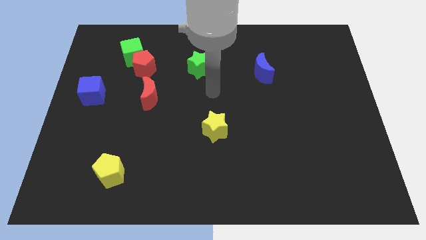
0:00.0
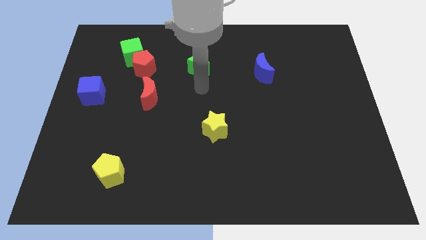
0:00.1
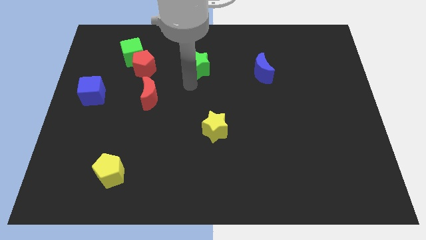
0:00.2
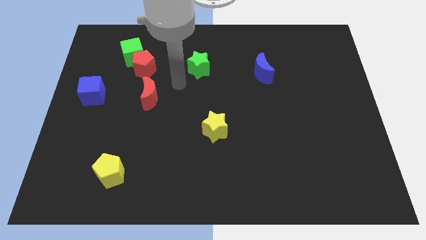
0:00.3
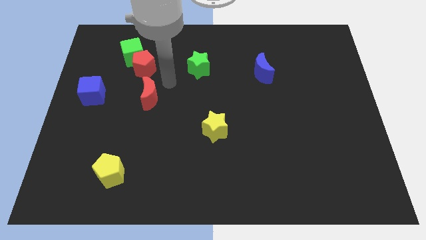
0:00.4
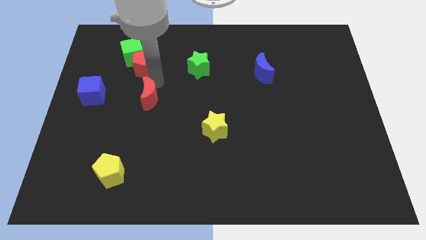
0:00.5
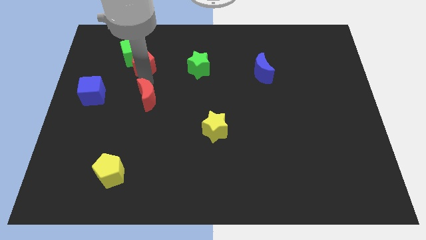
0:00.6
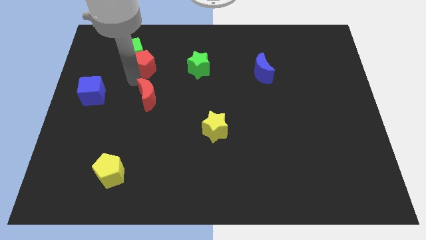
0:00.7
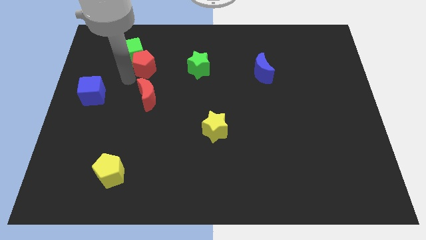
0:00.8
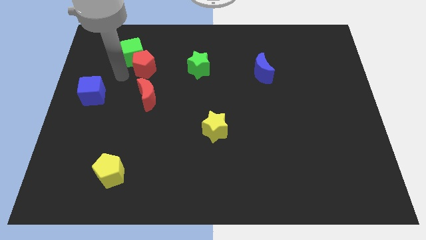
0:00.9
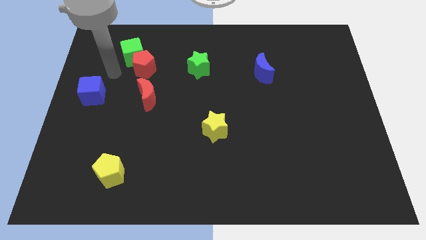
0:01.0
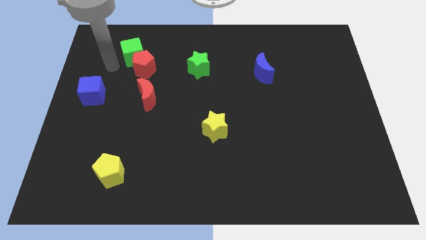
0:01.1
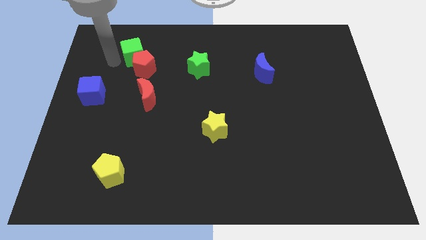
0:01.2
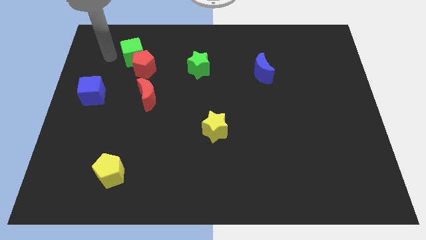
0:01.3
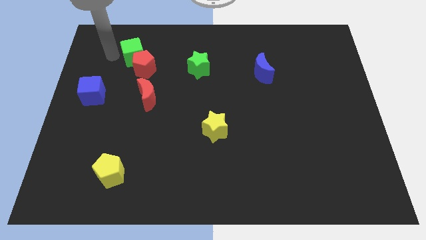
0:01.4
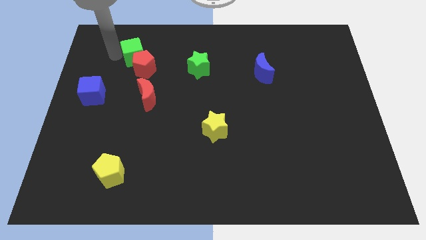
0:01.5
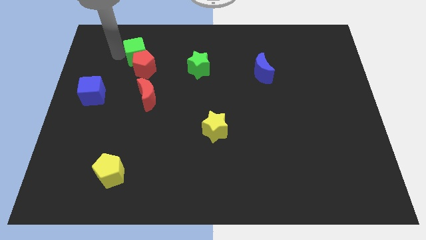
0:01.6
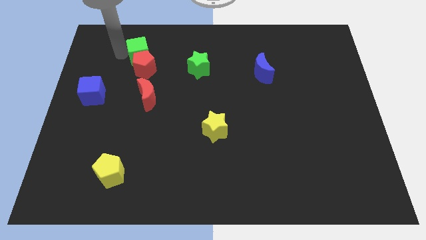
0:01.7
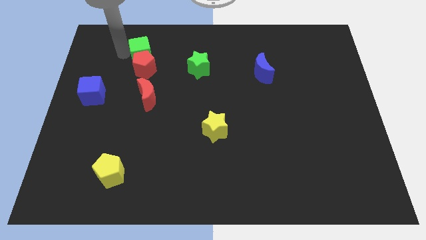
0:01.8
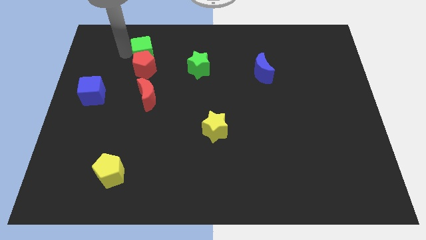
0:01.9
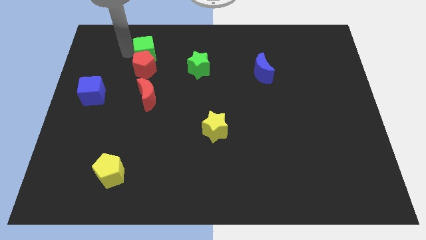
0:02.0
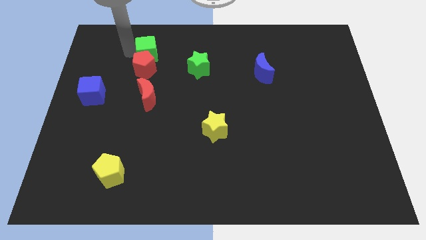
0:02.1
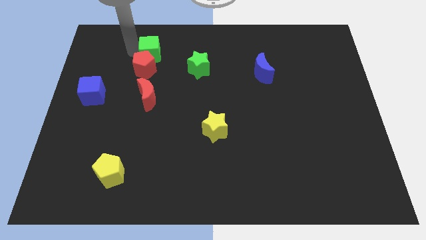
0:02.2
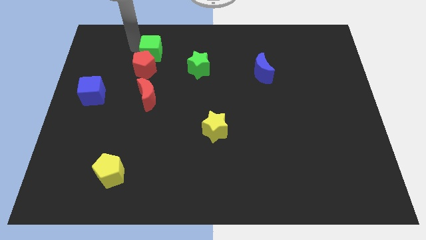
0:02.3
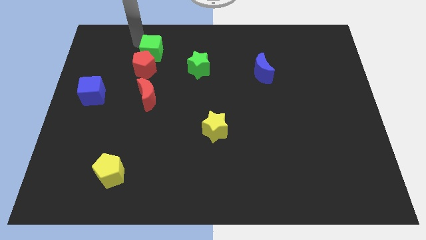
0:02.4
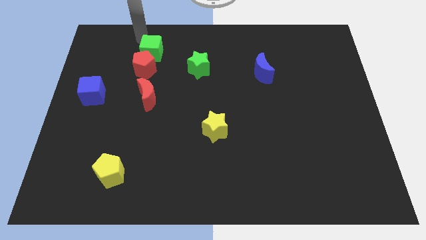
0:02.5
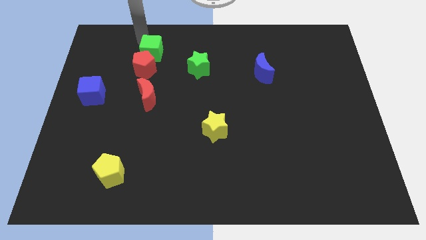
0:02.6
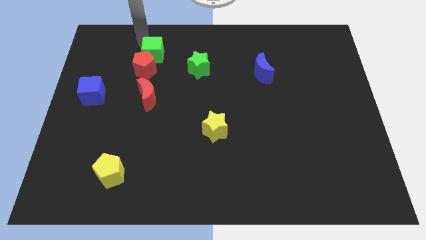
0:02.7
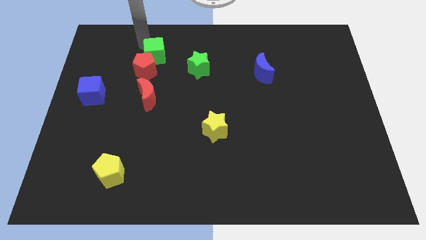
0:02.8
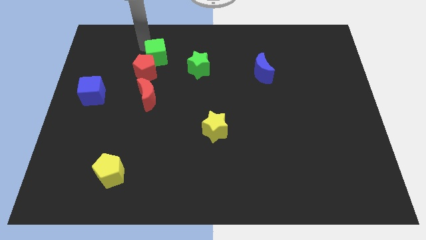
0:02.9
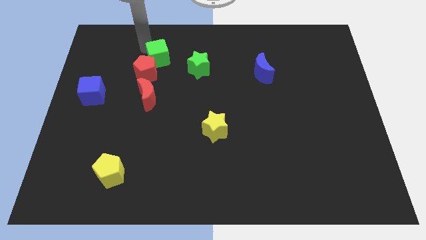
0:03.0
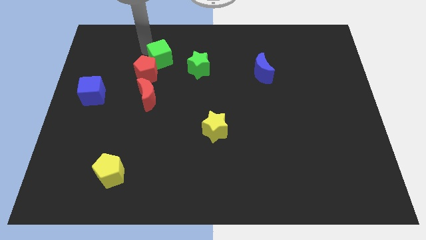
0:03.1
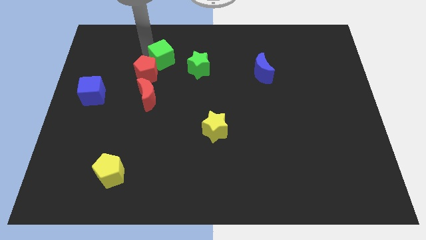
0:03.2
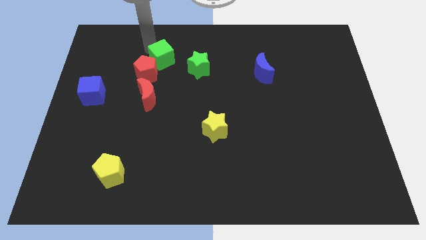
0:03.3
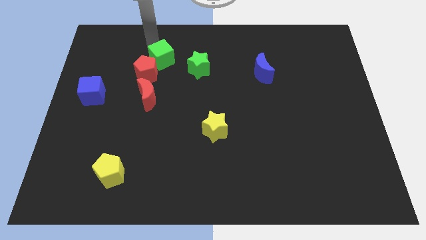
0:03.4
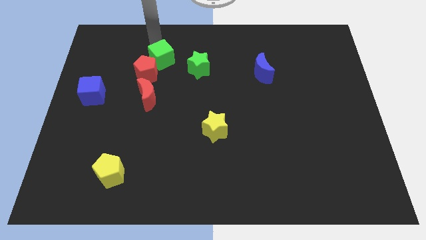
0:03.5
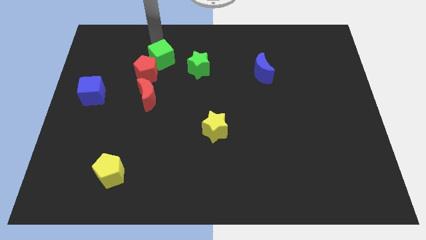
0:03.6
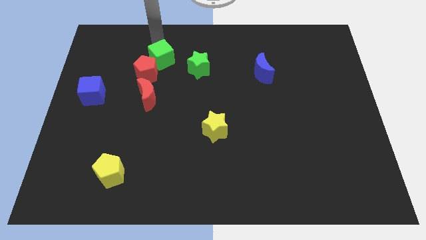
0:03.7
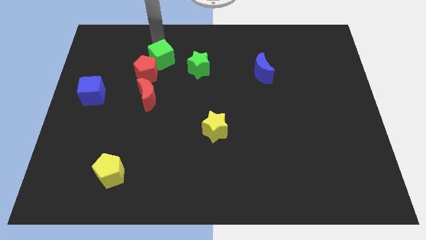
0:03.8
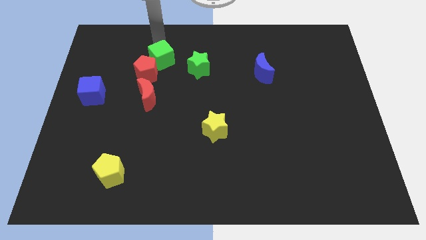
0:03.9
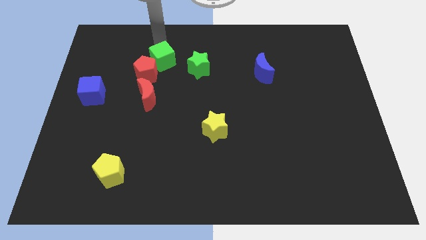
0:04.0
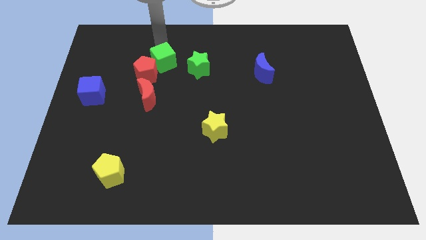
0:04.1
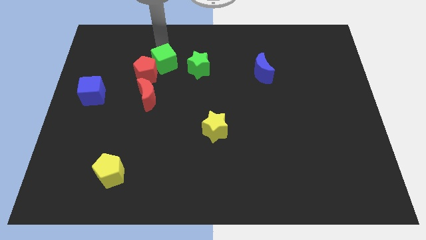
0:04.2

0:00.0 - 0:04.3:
slightly push the green cube downwards and then to the right

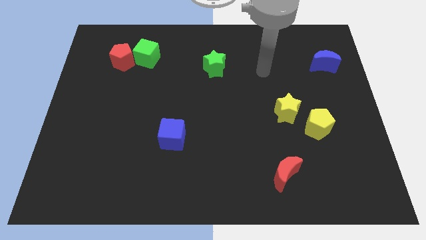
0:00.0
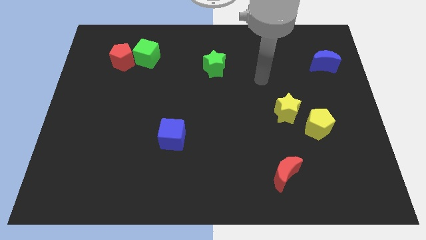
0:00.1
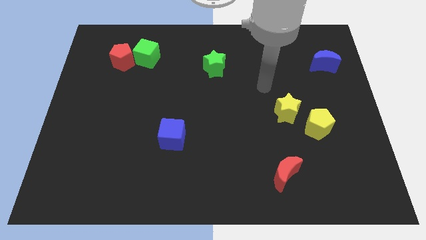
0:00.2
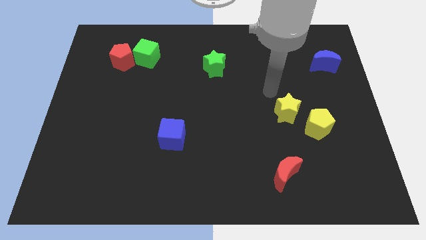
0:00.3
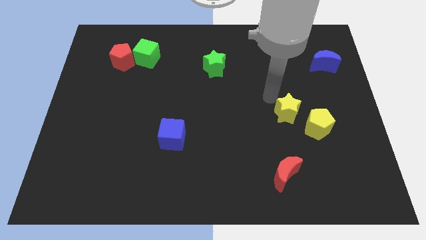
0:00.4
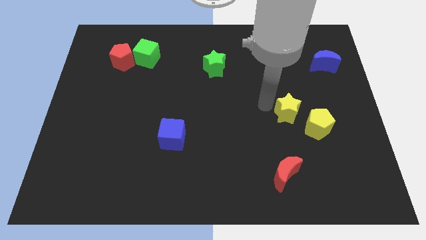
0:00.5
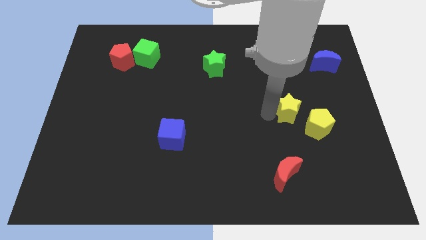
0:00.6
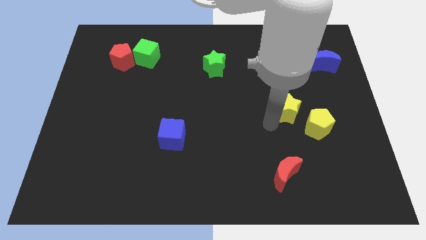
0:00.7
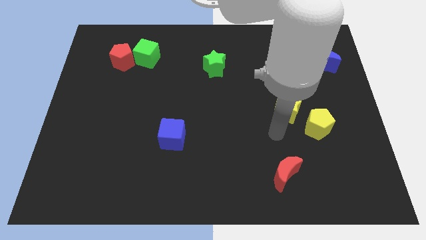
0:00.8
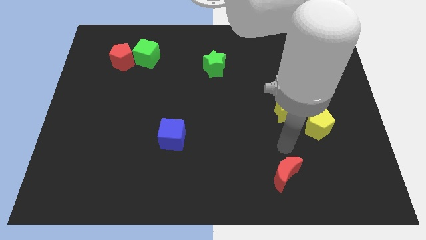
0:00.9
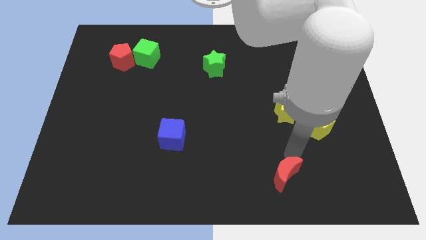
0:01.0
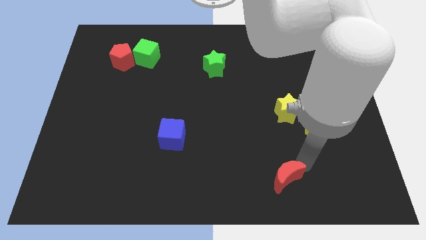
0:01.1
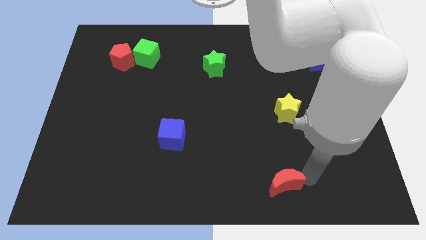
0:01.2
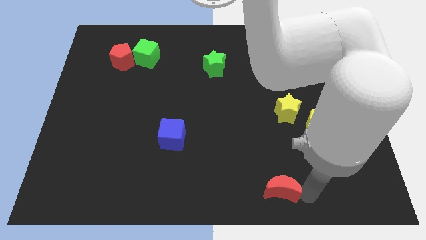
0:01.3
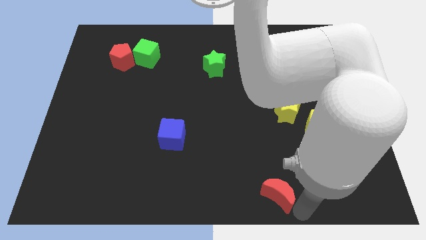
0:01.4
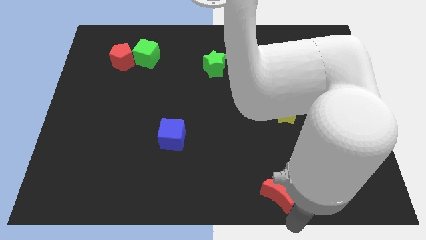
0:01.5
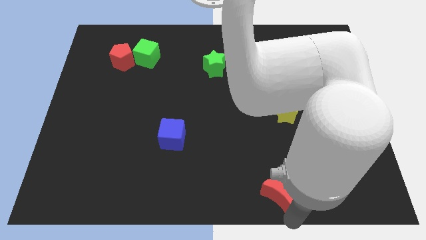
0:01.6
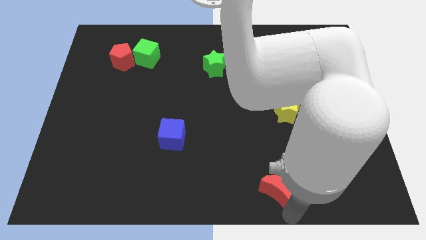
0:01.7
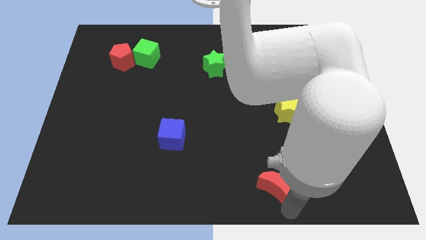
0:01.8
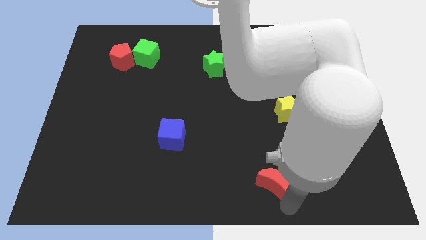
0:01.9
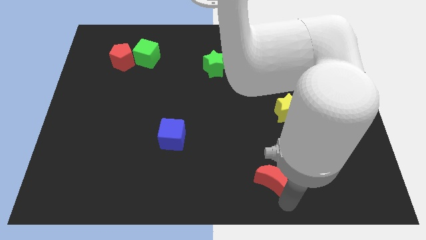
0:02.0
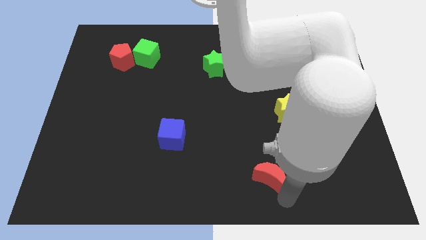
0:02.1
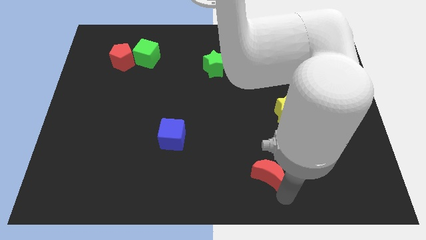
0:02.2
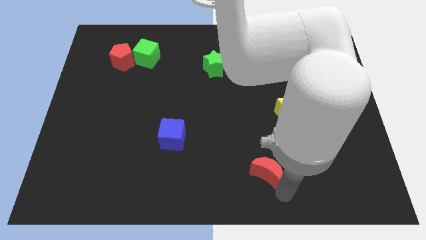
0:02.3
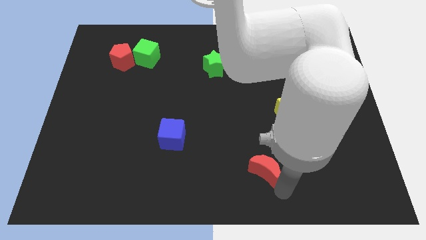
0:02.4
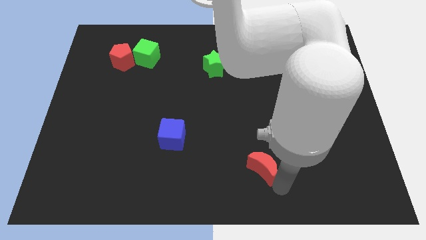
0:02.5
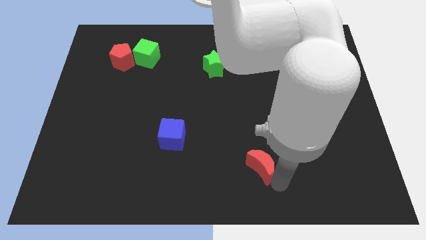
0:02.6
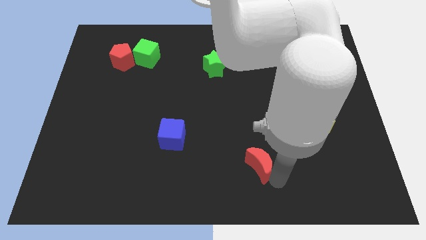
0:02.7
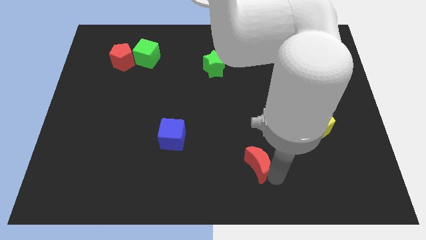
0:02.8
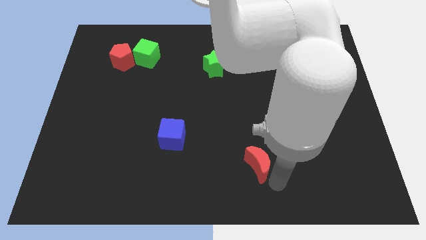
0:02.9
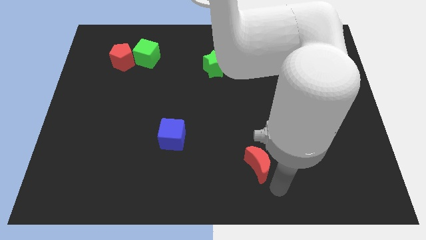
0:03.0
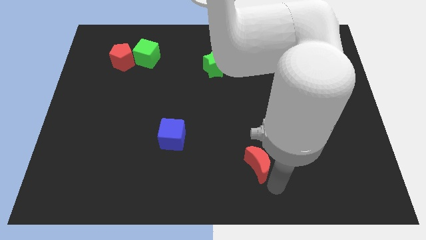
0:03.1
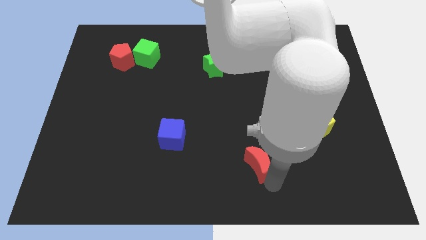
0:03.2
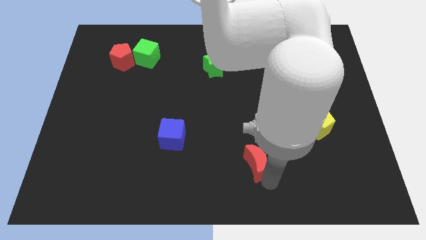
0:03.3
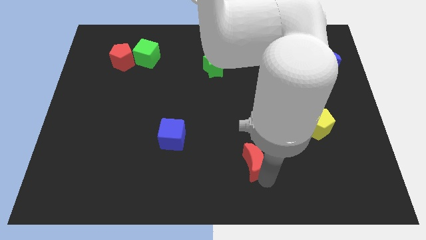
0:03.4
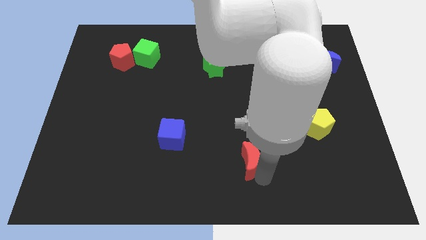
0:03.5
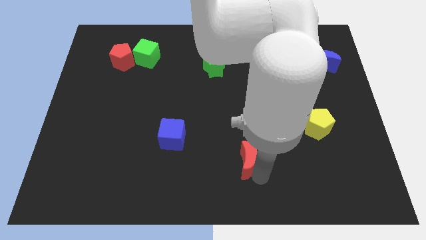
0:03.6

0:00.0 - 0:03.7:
slightly move the red moon up and to the left diagonally

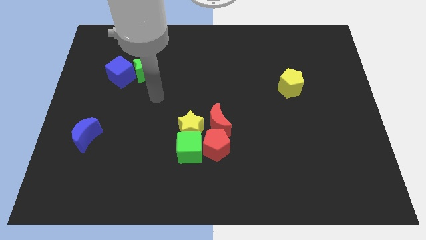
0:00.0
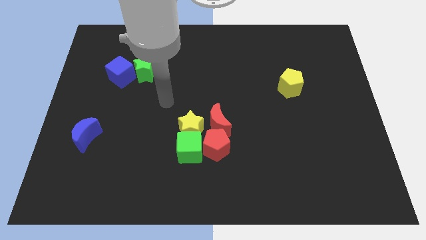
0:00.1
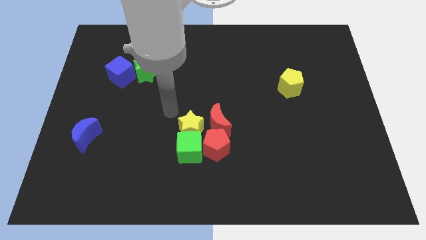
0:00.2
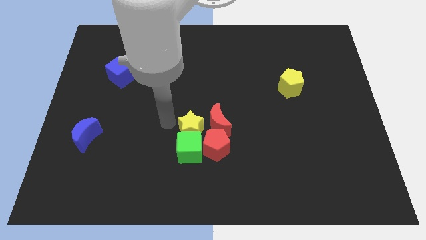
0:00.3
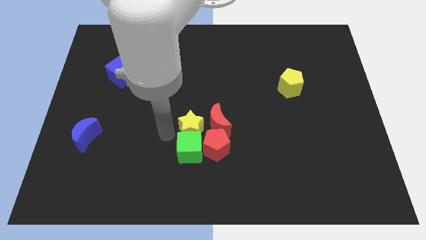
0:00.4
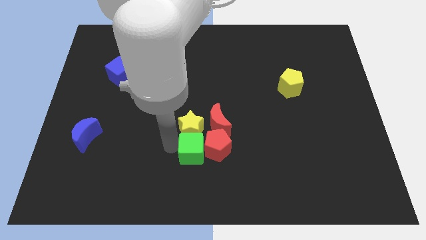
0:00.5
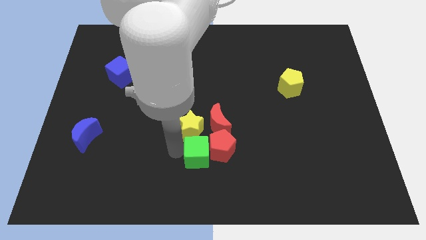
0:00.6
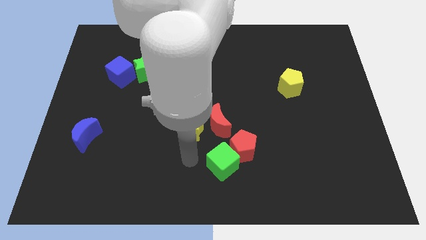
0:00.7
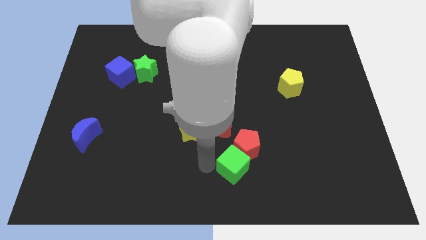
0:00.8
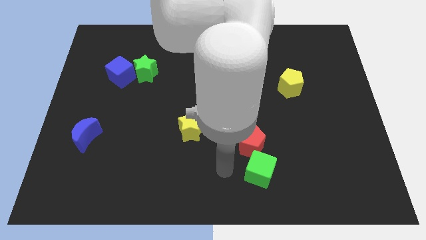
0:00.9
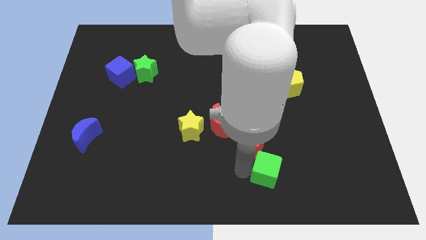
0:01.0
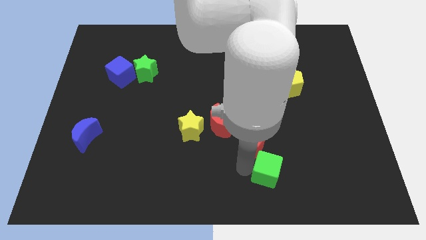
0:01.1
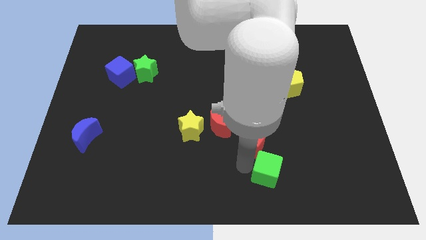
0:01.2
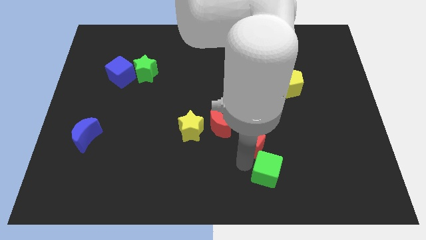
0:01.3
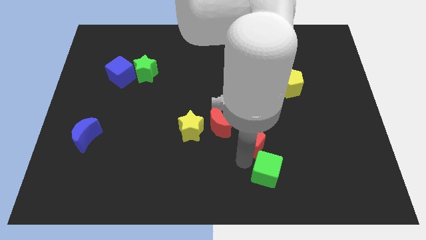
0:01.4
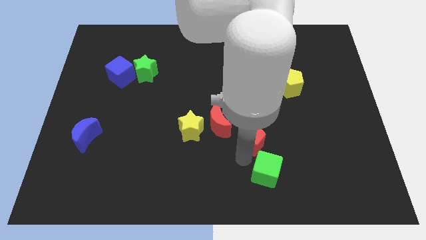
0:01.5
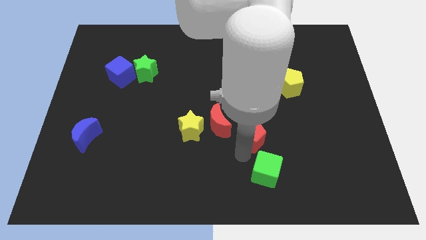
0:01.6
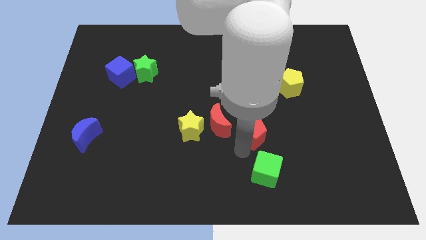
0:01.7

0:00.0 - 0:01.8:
slightly push the red pentagon diagonally up and to the right
